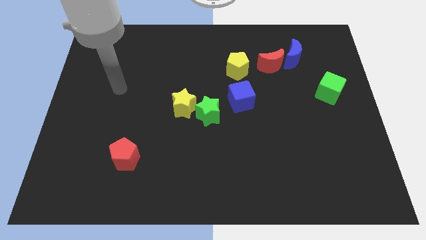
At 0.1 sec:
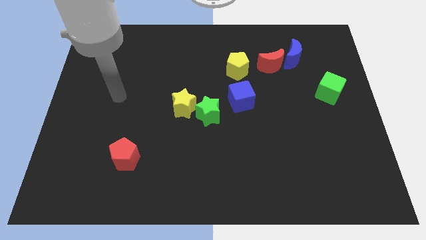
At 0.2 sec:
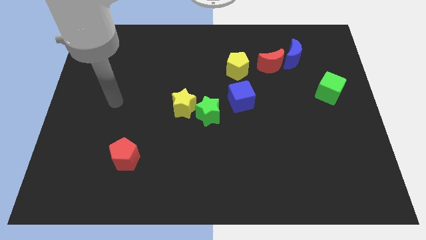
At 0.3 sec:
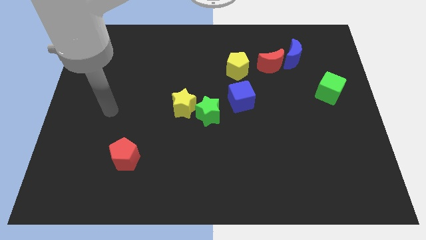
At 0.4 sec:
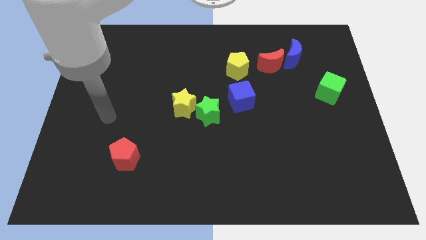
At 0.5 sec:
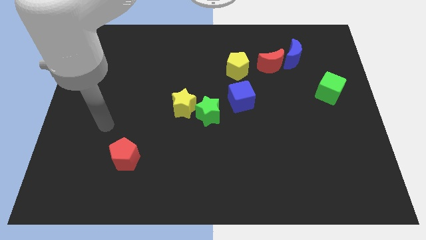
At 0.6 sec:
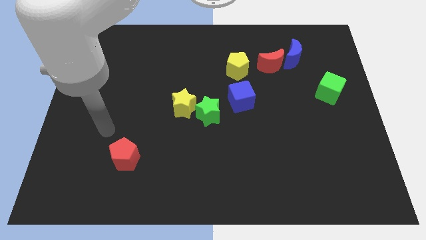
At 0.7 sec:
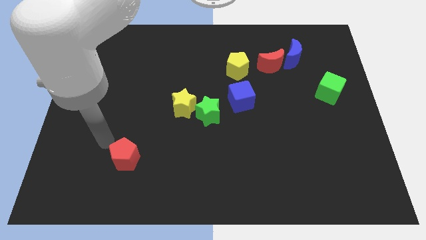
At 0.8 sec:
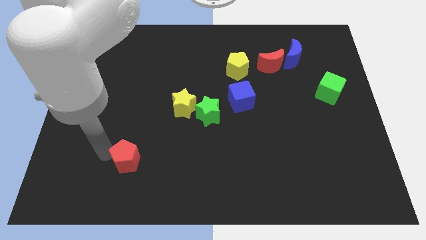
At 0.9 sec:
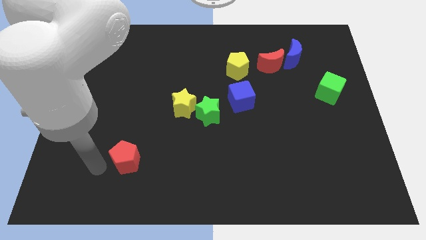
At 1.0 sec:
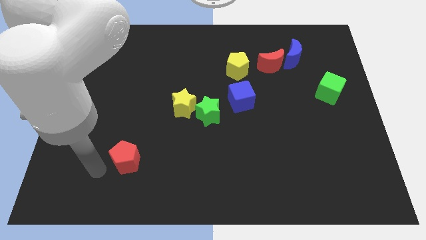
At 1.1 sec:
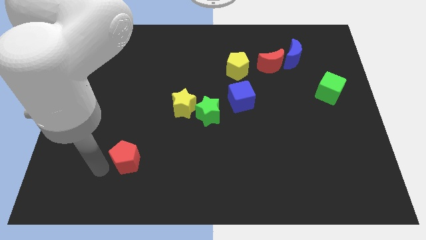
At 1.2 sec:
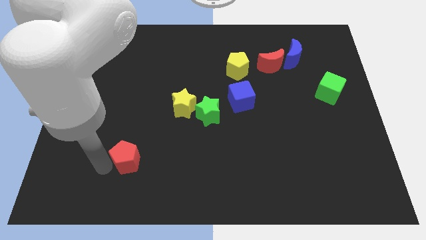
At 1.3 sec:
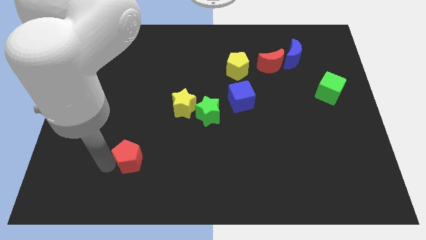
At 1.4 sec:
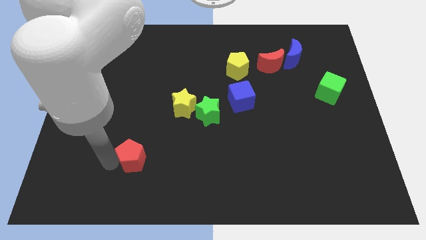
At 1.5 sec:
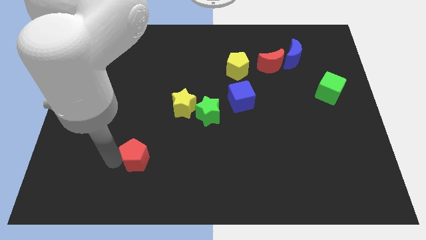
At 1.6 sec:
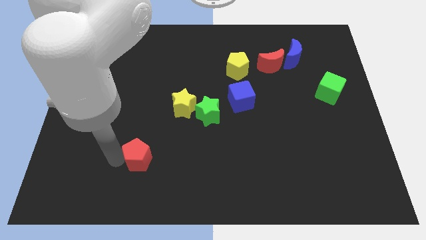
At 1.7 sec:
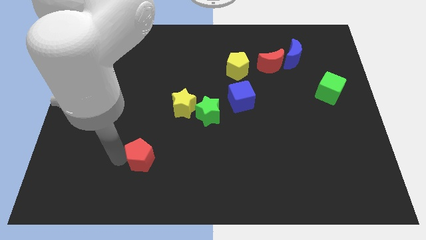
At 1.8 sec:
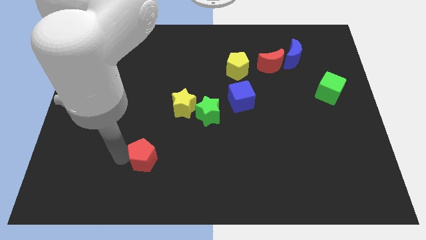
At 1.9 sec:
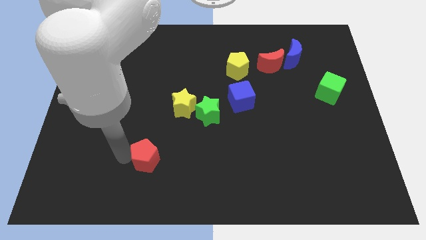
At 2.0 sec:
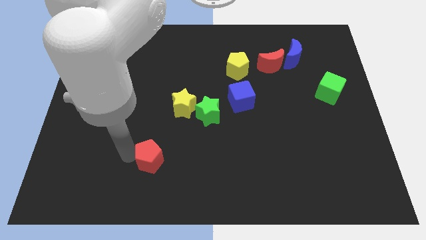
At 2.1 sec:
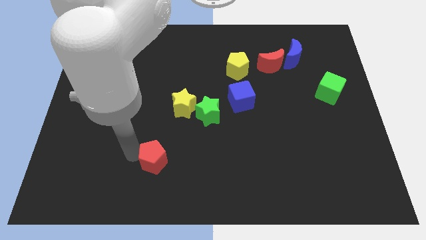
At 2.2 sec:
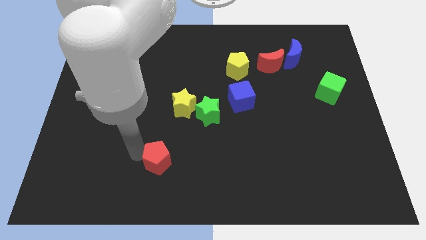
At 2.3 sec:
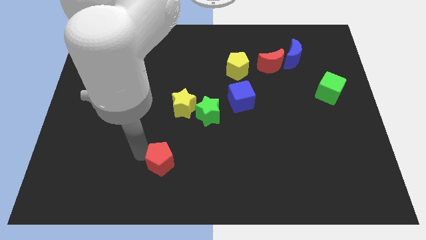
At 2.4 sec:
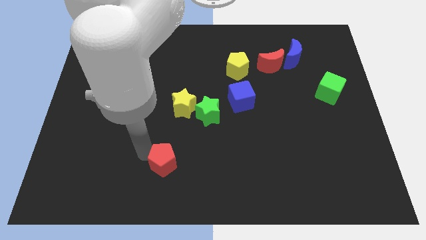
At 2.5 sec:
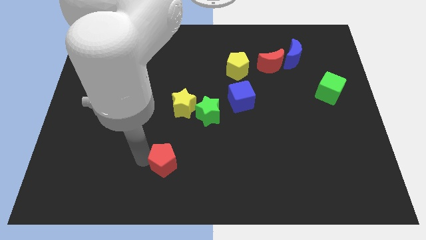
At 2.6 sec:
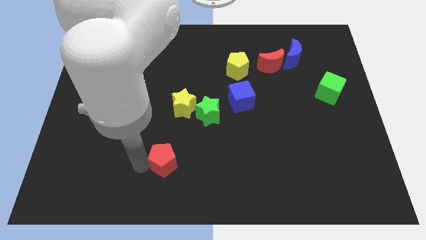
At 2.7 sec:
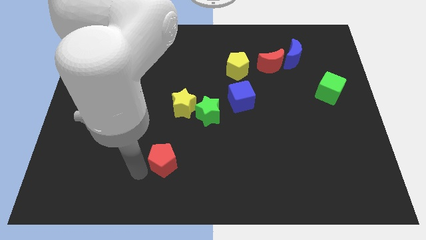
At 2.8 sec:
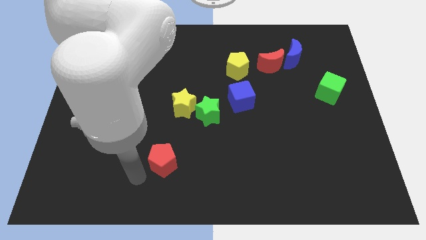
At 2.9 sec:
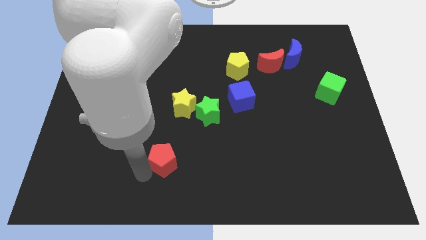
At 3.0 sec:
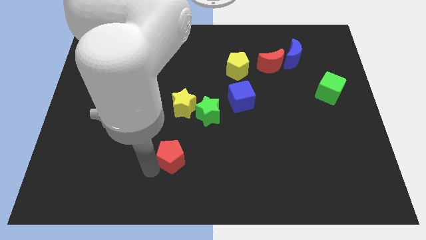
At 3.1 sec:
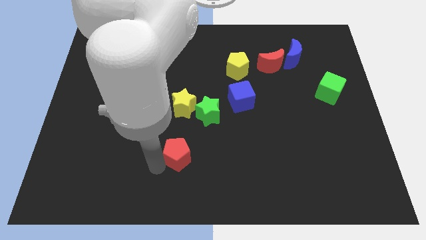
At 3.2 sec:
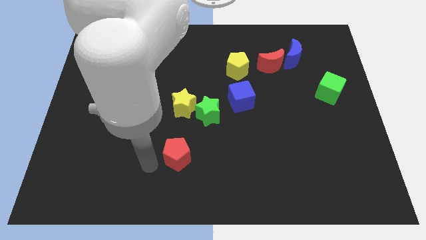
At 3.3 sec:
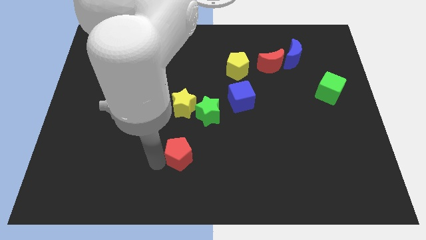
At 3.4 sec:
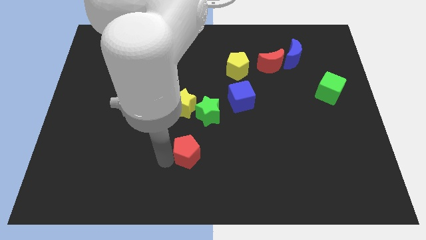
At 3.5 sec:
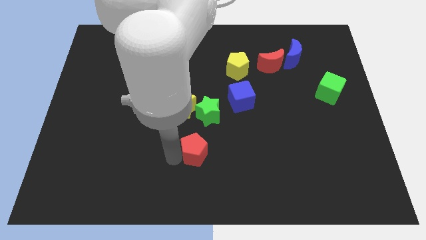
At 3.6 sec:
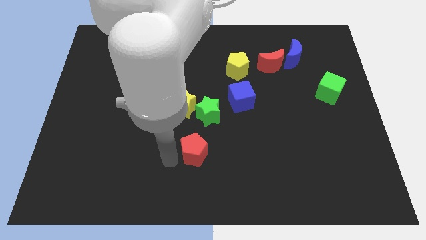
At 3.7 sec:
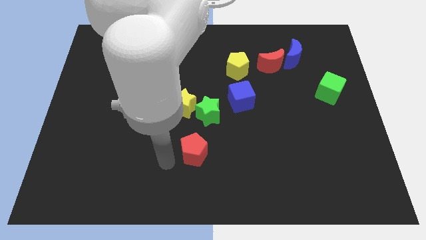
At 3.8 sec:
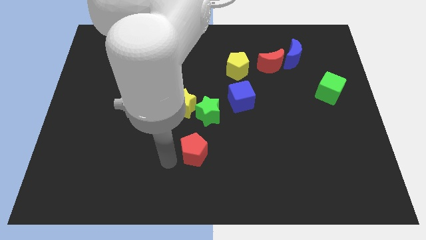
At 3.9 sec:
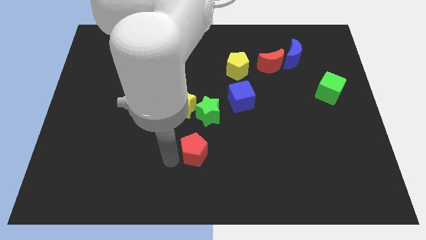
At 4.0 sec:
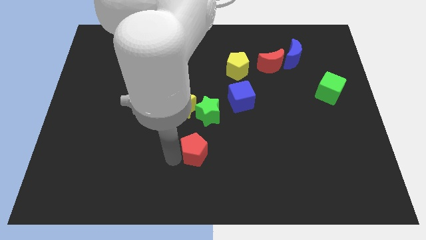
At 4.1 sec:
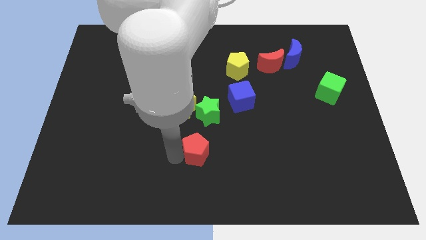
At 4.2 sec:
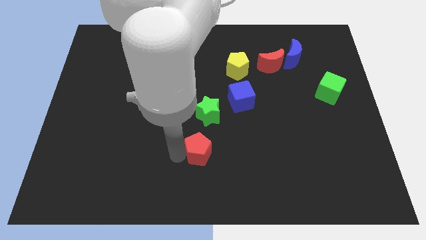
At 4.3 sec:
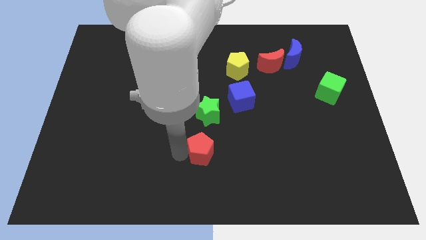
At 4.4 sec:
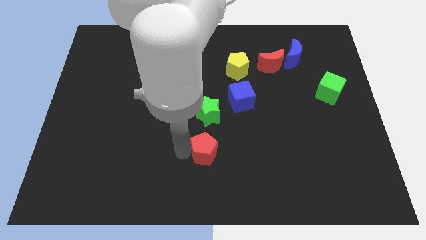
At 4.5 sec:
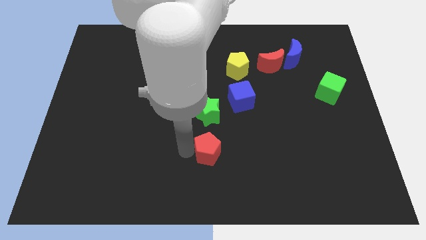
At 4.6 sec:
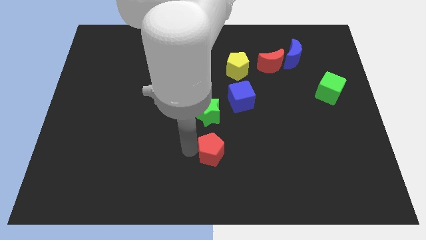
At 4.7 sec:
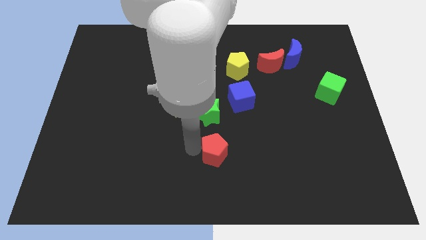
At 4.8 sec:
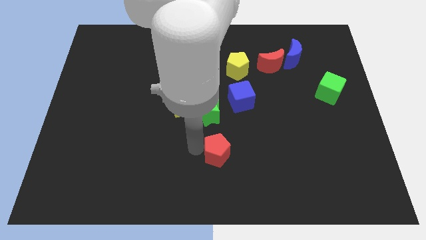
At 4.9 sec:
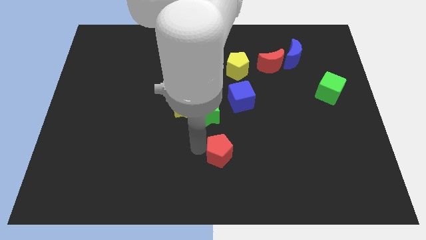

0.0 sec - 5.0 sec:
push the red pentagon to the right

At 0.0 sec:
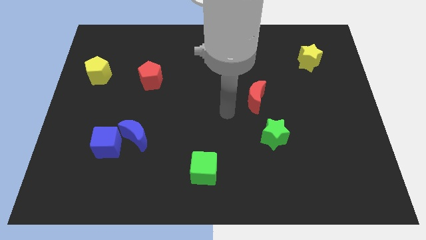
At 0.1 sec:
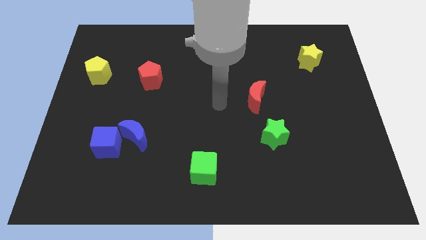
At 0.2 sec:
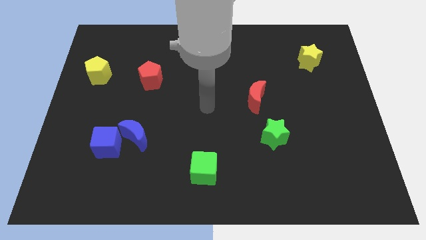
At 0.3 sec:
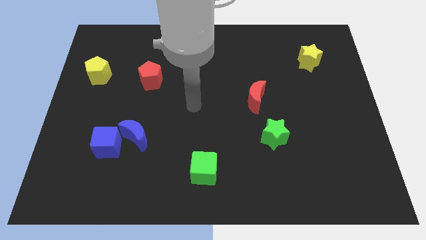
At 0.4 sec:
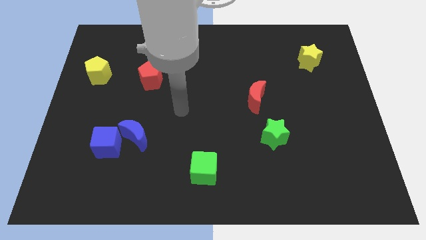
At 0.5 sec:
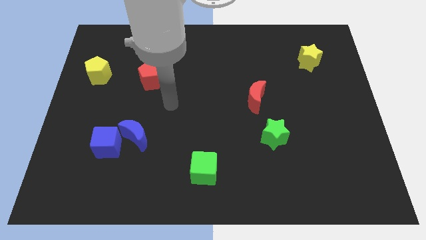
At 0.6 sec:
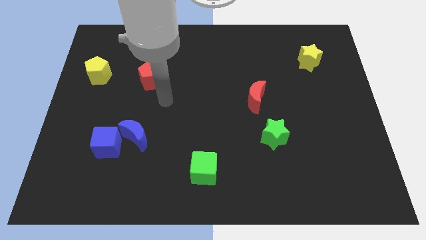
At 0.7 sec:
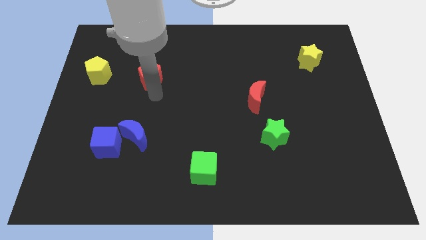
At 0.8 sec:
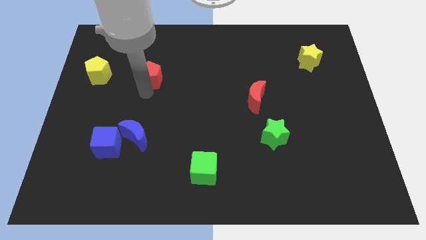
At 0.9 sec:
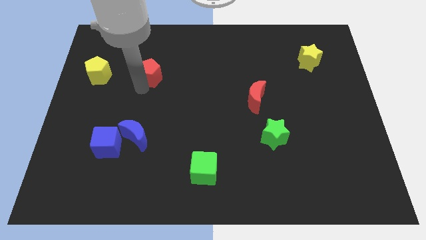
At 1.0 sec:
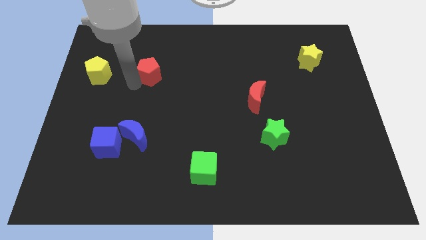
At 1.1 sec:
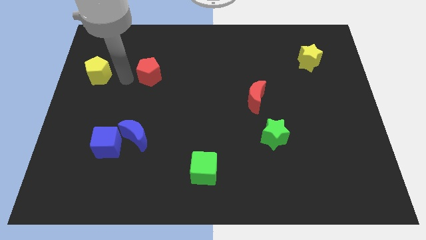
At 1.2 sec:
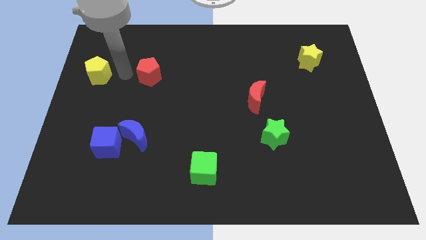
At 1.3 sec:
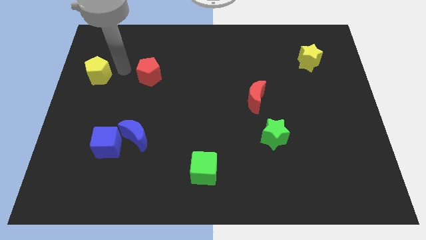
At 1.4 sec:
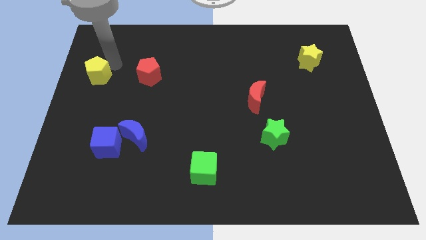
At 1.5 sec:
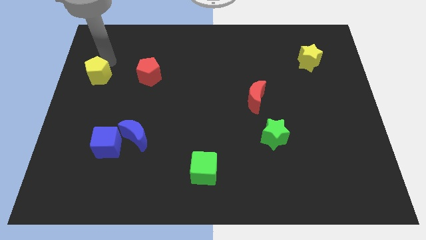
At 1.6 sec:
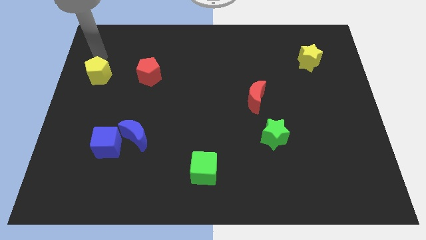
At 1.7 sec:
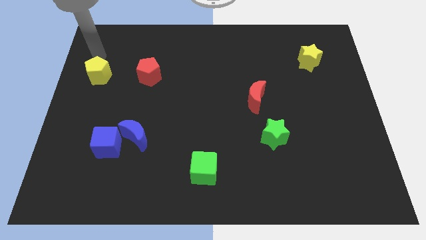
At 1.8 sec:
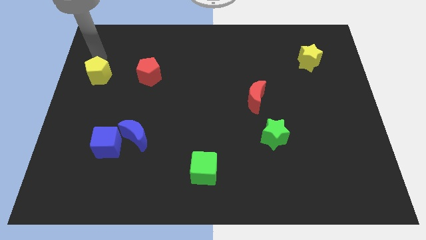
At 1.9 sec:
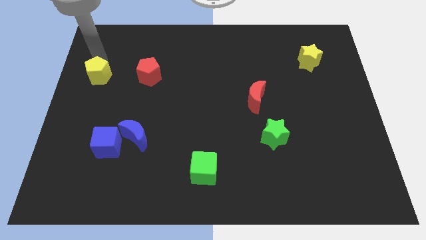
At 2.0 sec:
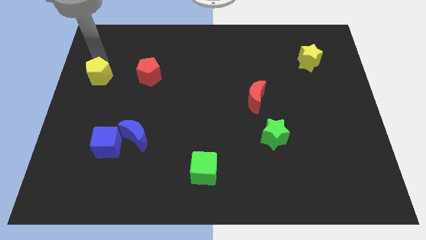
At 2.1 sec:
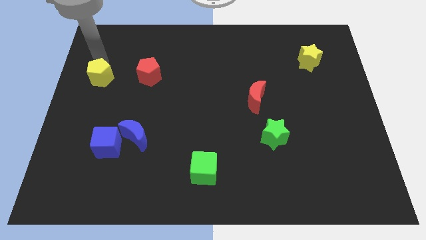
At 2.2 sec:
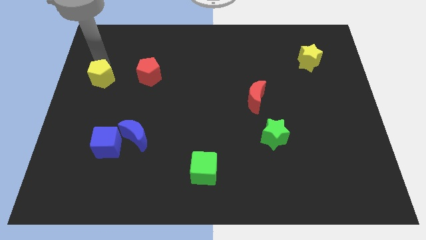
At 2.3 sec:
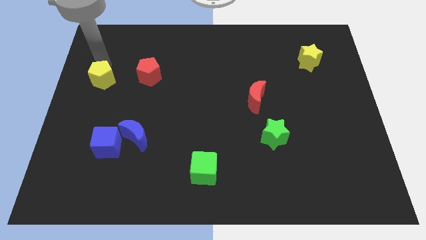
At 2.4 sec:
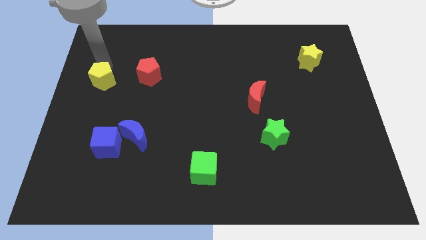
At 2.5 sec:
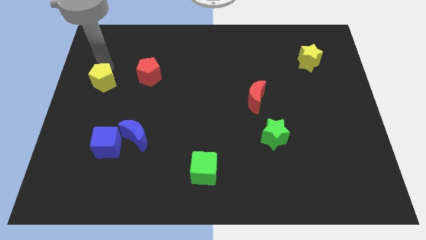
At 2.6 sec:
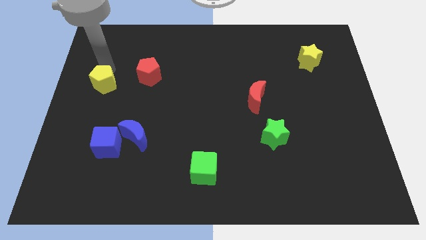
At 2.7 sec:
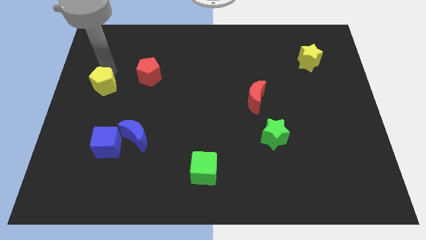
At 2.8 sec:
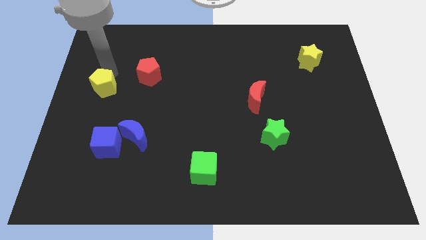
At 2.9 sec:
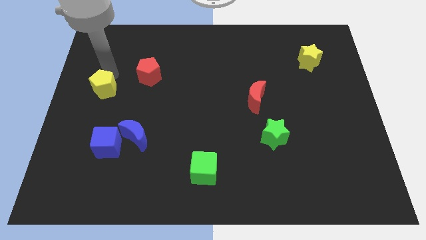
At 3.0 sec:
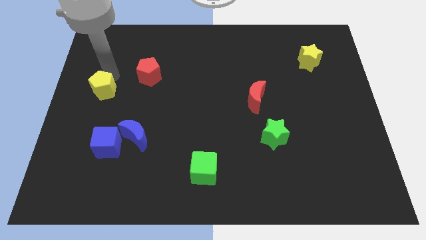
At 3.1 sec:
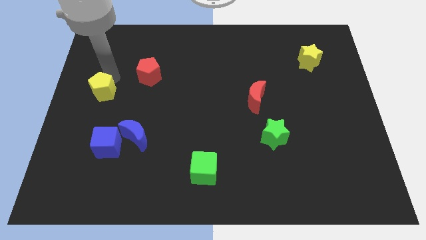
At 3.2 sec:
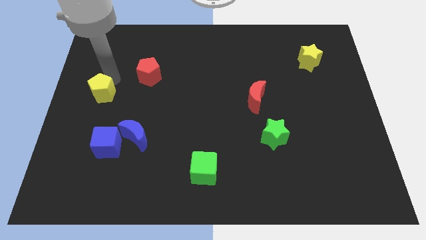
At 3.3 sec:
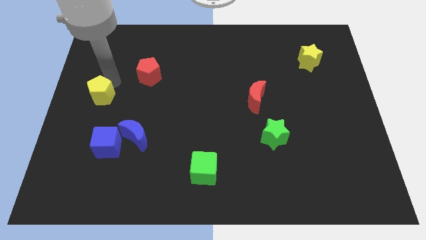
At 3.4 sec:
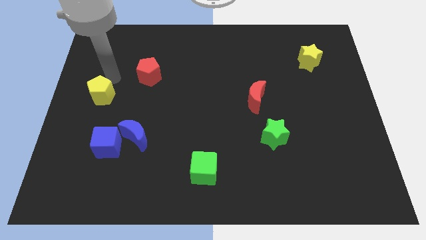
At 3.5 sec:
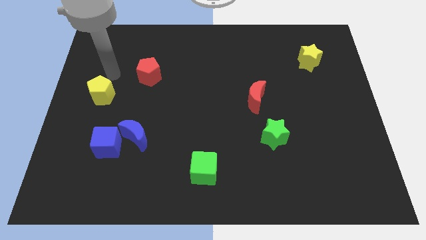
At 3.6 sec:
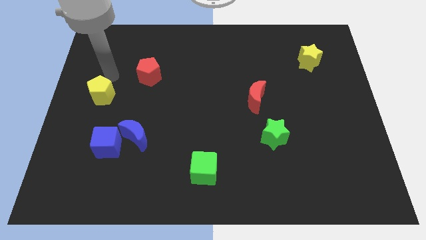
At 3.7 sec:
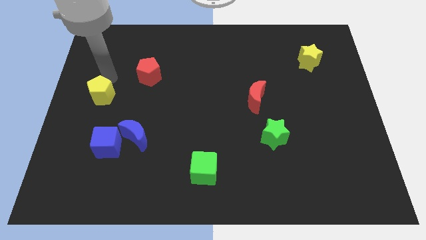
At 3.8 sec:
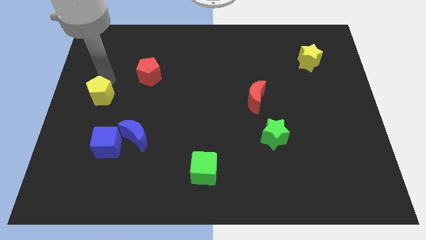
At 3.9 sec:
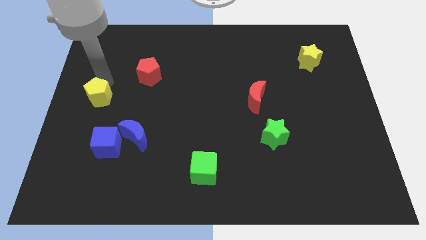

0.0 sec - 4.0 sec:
slightly push the yellow pentagon downwards
